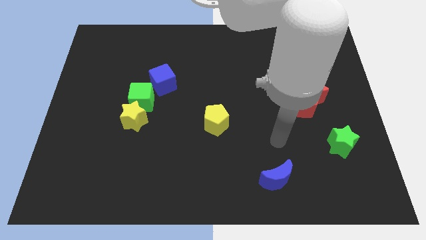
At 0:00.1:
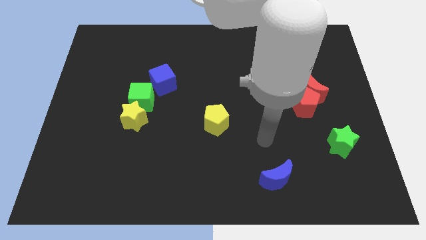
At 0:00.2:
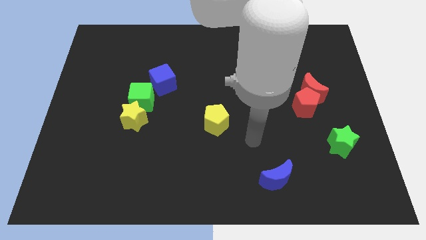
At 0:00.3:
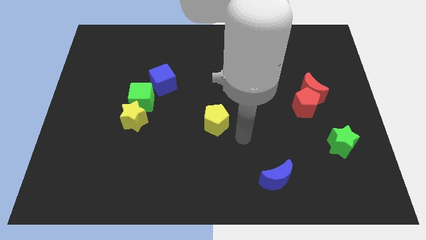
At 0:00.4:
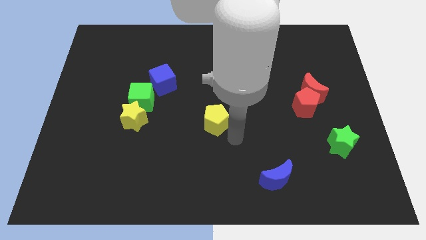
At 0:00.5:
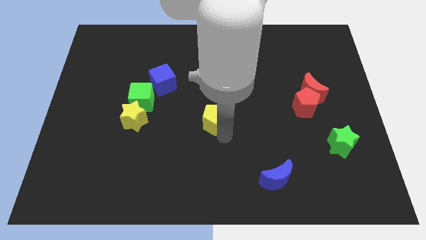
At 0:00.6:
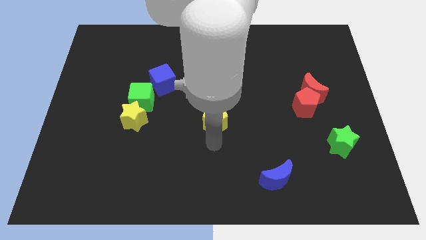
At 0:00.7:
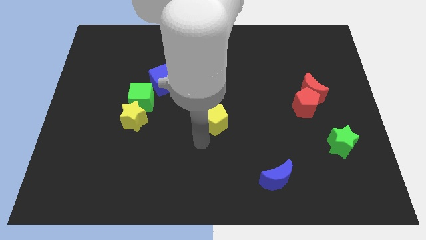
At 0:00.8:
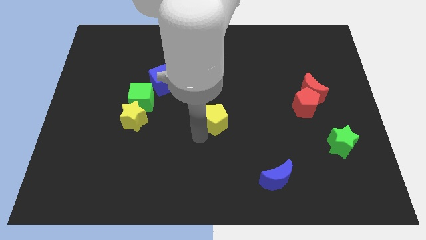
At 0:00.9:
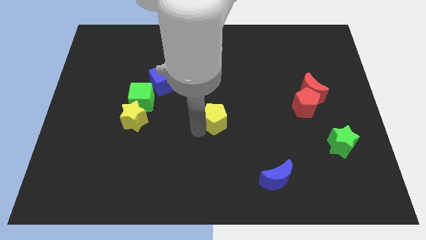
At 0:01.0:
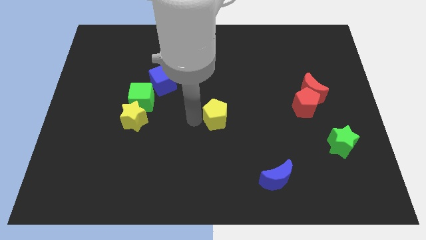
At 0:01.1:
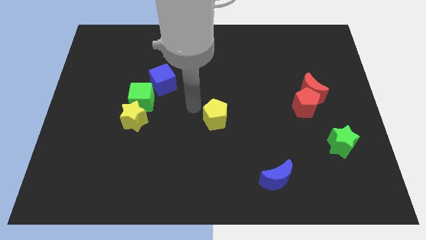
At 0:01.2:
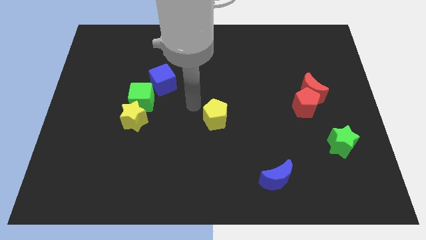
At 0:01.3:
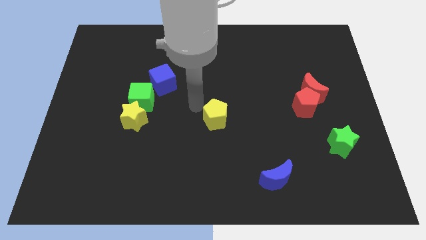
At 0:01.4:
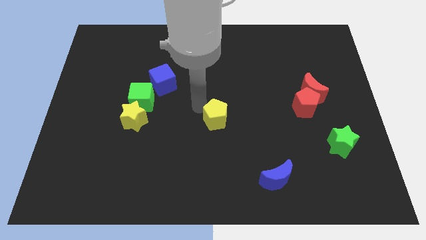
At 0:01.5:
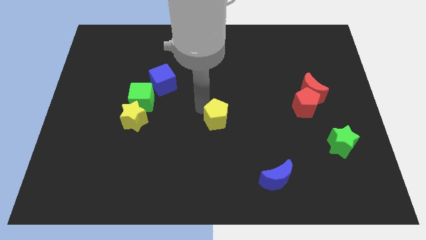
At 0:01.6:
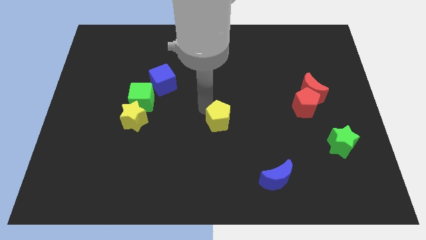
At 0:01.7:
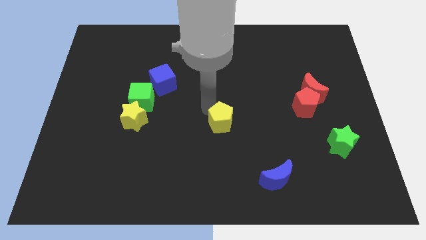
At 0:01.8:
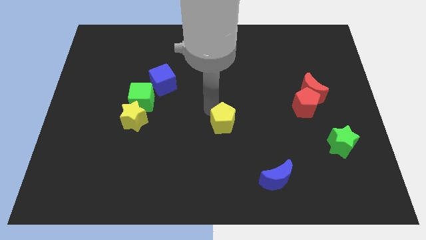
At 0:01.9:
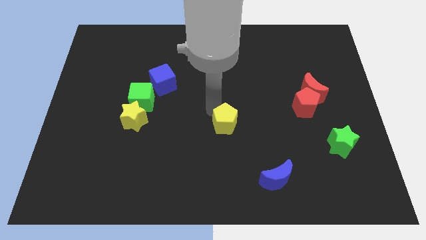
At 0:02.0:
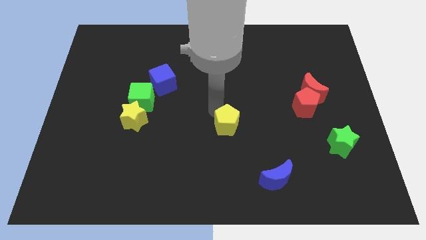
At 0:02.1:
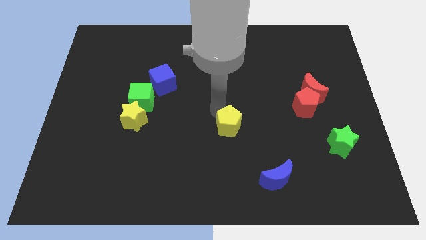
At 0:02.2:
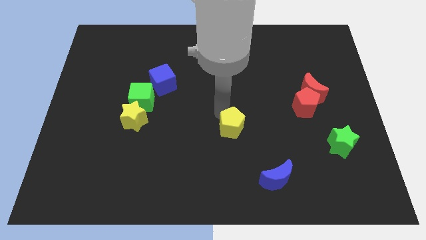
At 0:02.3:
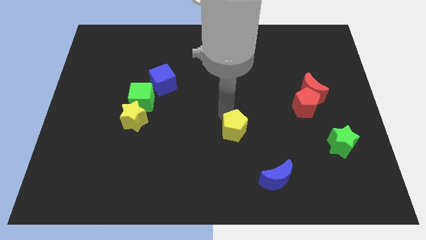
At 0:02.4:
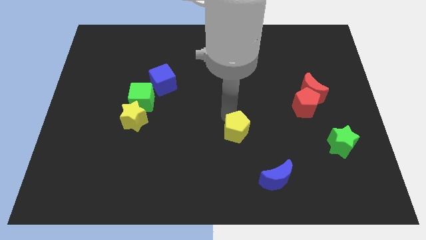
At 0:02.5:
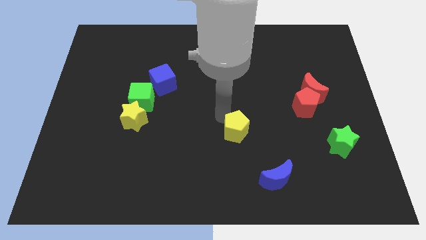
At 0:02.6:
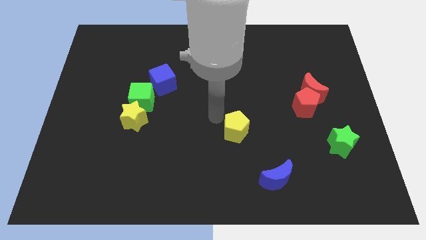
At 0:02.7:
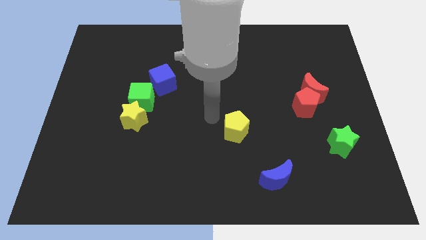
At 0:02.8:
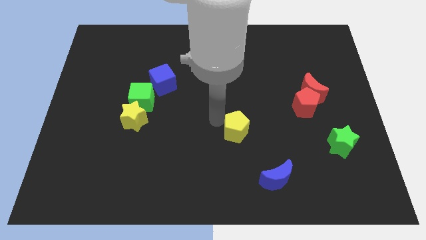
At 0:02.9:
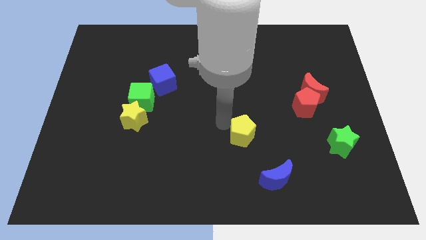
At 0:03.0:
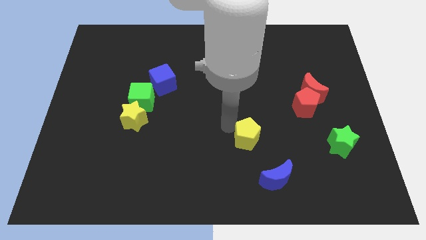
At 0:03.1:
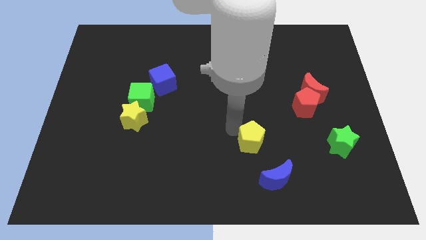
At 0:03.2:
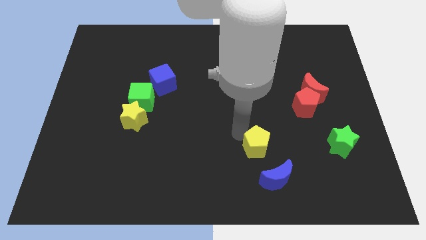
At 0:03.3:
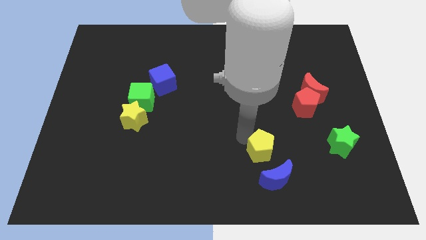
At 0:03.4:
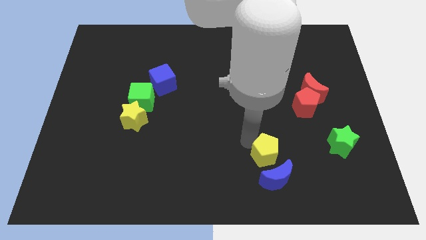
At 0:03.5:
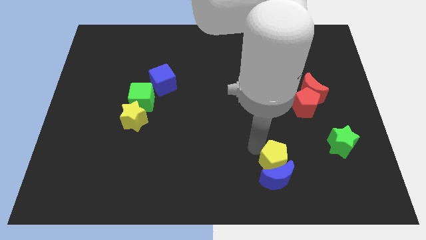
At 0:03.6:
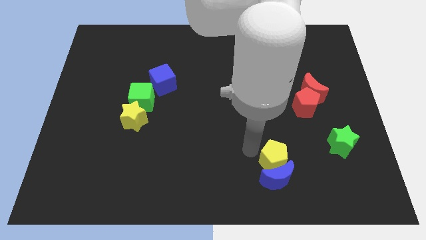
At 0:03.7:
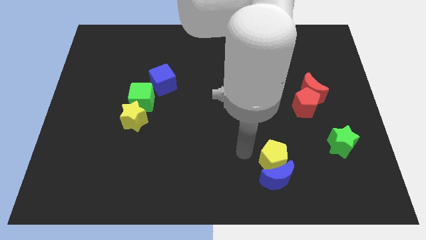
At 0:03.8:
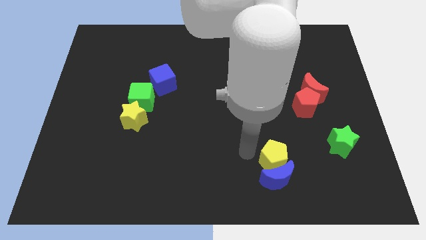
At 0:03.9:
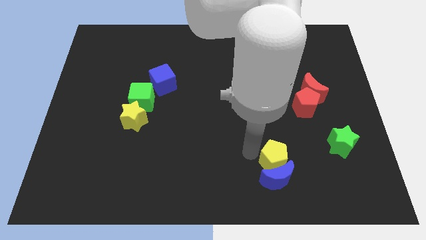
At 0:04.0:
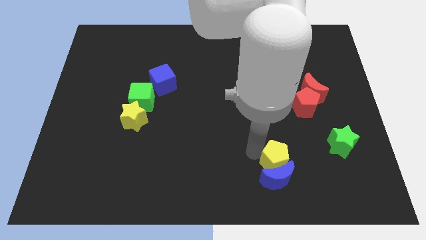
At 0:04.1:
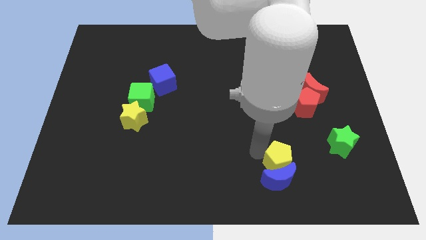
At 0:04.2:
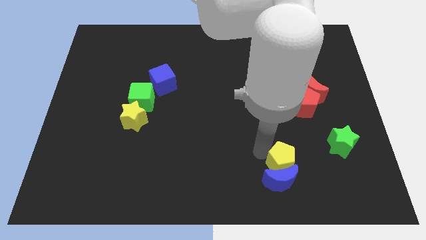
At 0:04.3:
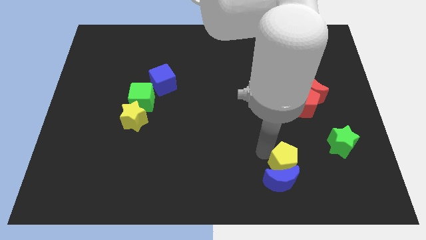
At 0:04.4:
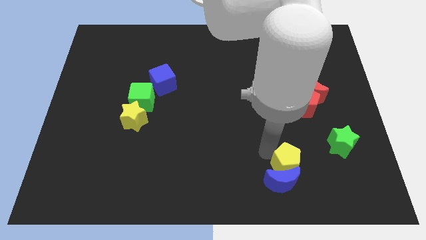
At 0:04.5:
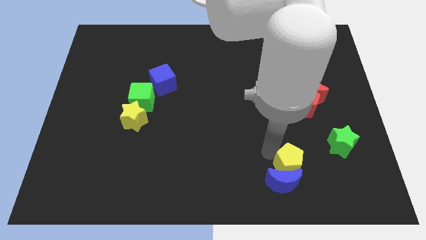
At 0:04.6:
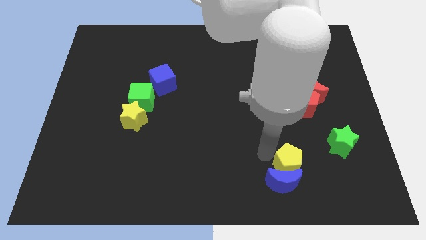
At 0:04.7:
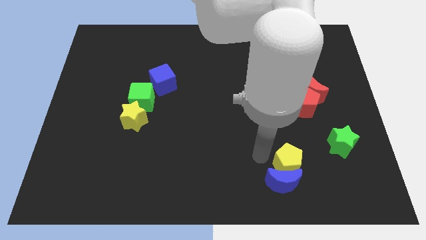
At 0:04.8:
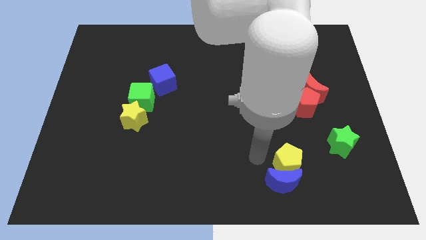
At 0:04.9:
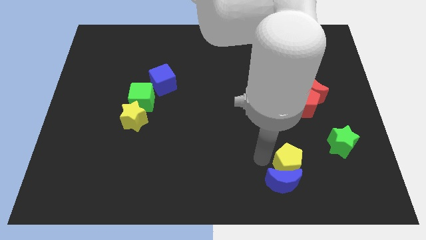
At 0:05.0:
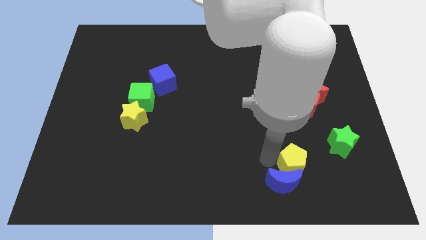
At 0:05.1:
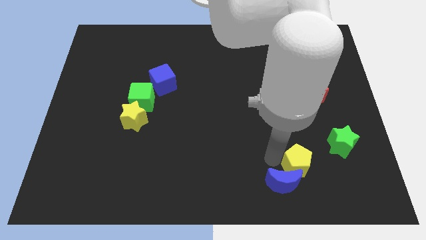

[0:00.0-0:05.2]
push the yellow pentagon to the right of the blue moon

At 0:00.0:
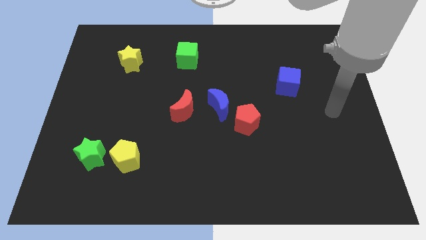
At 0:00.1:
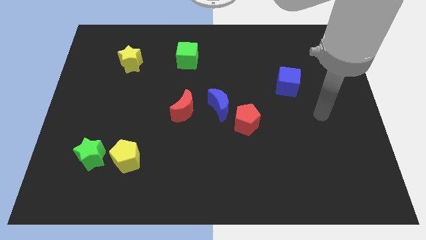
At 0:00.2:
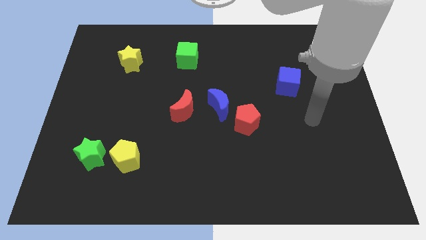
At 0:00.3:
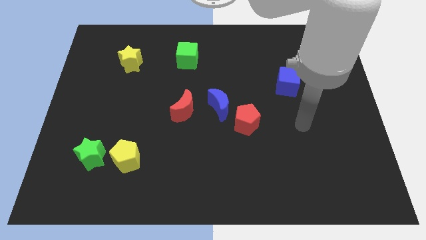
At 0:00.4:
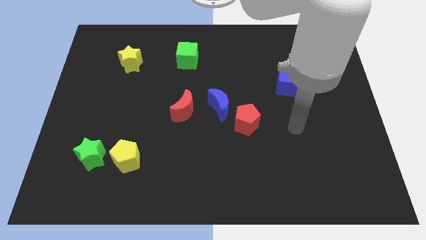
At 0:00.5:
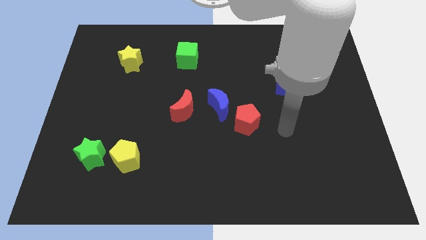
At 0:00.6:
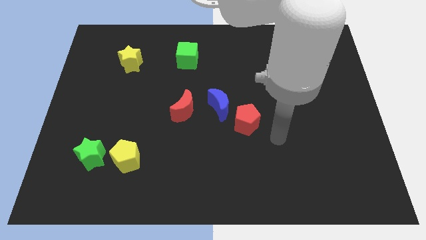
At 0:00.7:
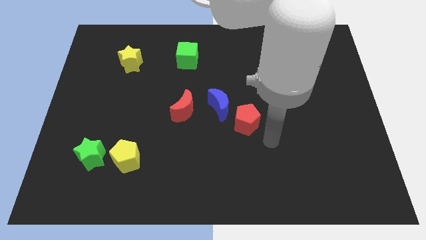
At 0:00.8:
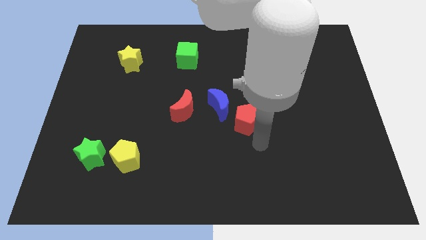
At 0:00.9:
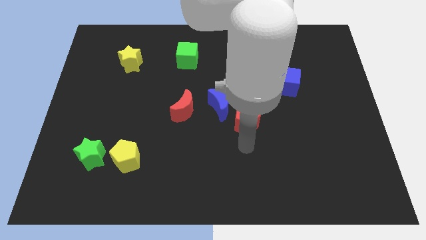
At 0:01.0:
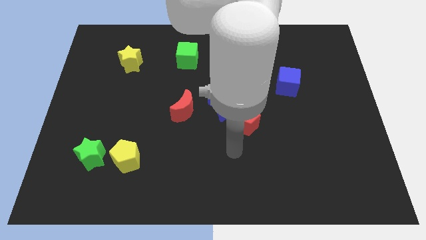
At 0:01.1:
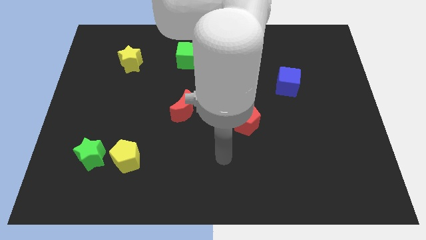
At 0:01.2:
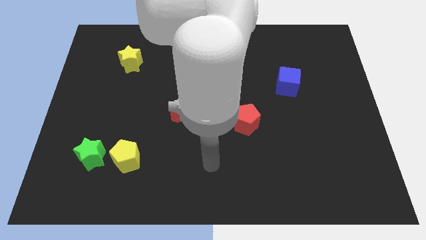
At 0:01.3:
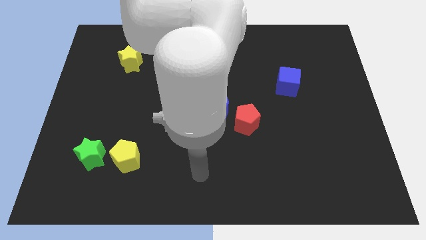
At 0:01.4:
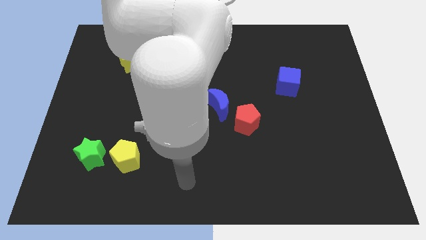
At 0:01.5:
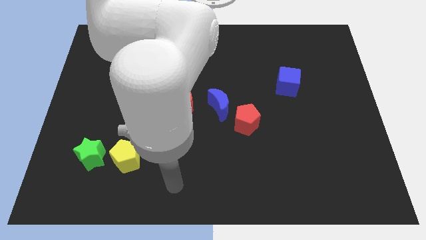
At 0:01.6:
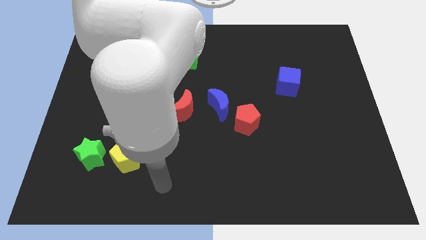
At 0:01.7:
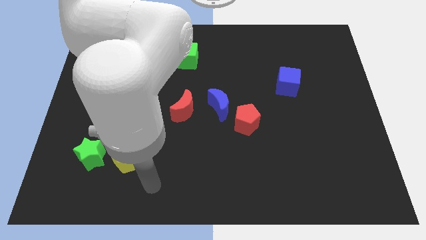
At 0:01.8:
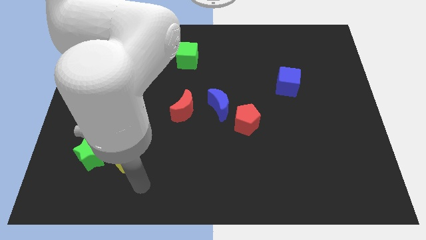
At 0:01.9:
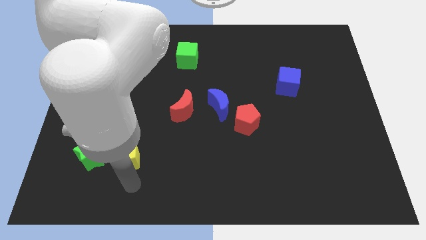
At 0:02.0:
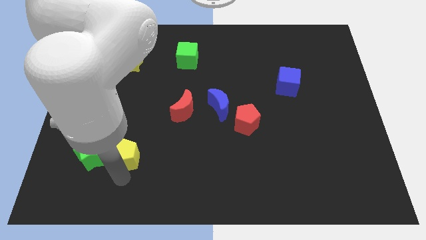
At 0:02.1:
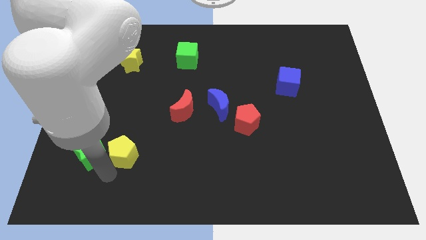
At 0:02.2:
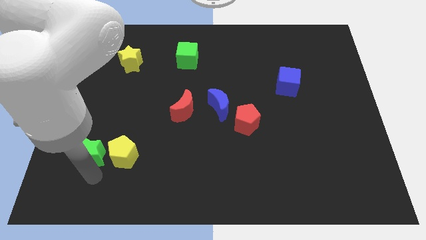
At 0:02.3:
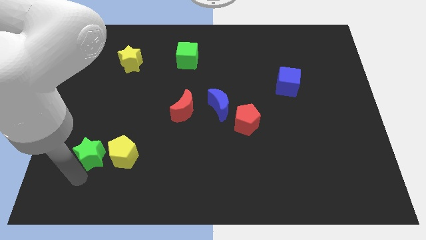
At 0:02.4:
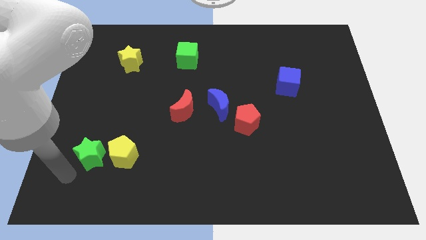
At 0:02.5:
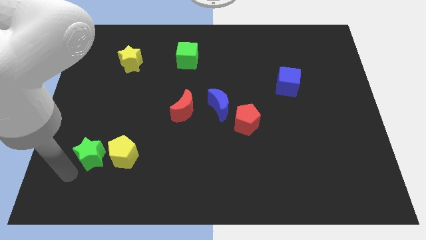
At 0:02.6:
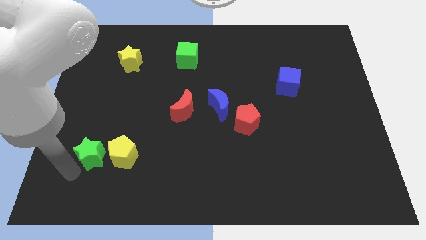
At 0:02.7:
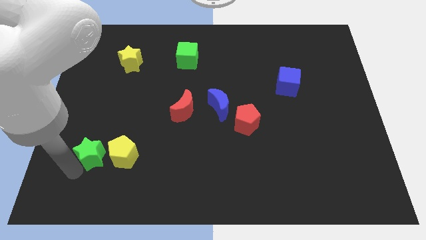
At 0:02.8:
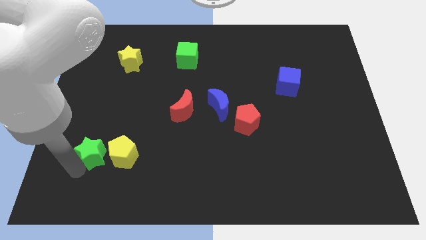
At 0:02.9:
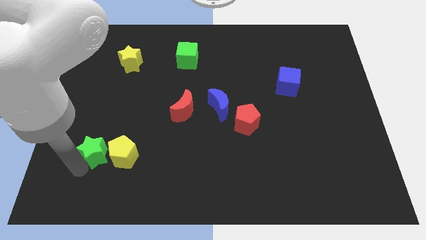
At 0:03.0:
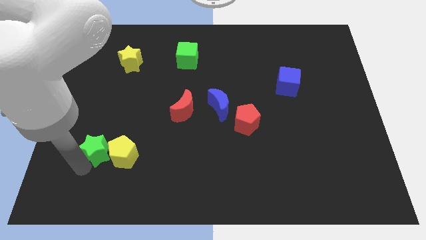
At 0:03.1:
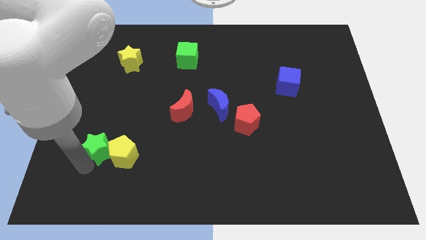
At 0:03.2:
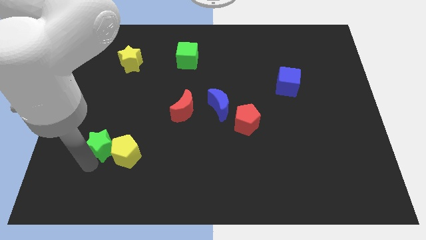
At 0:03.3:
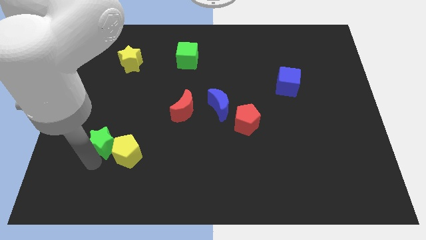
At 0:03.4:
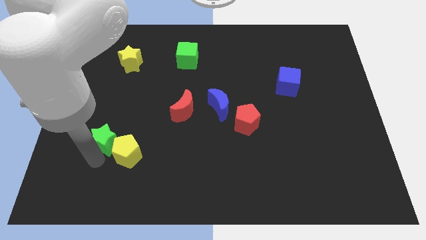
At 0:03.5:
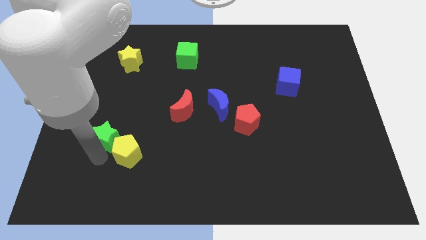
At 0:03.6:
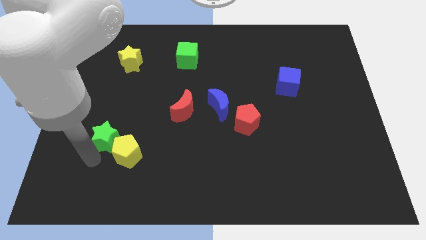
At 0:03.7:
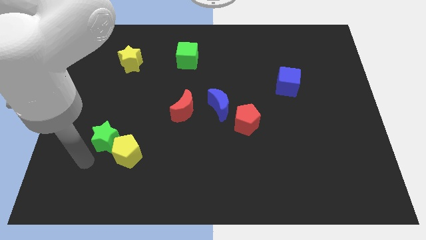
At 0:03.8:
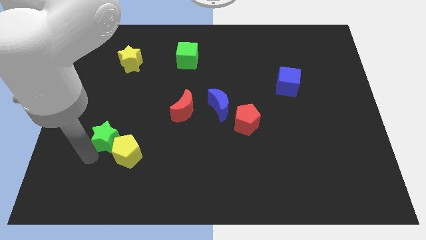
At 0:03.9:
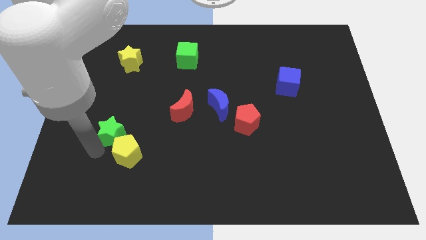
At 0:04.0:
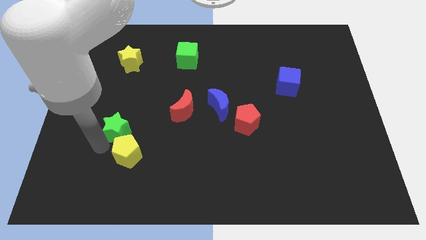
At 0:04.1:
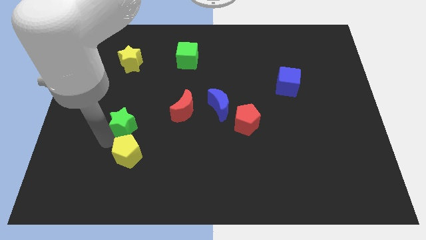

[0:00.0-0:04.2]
move the green star just left of the red moon
